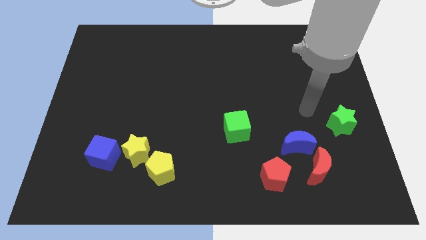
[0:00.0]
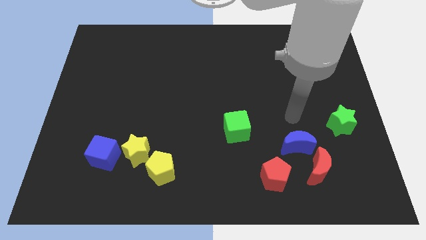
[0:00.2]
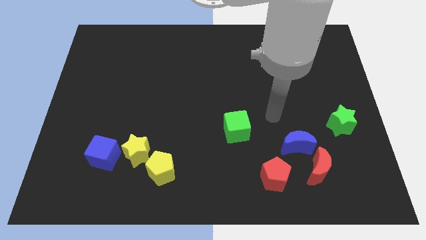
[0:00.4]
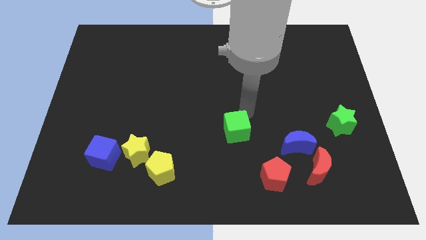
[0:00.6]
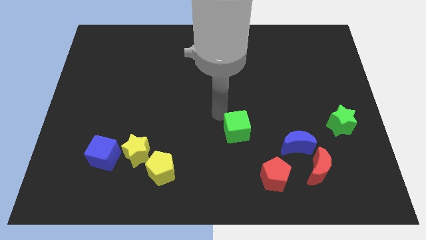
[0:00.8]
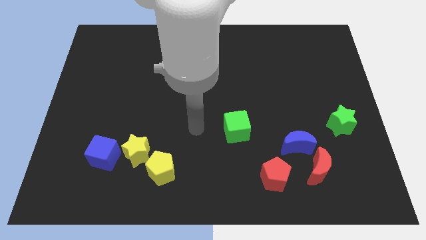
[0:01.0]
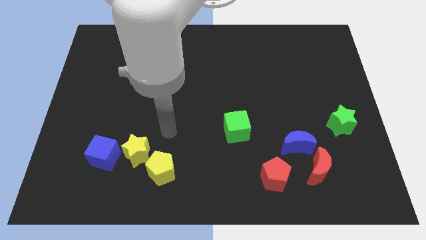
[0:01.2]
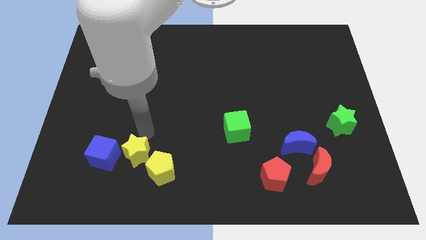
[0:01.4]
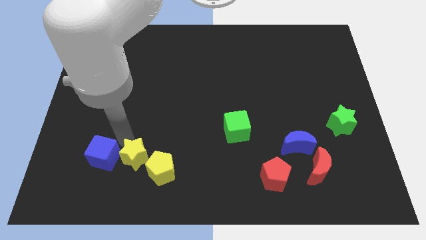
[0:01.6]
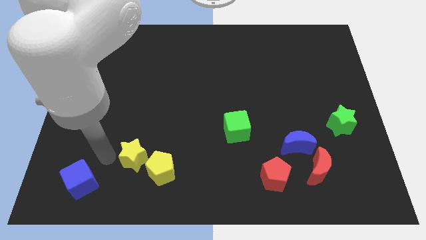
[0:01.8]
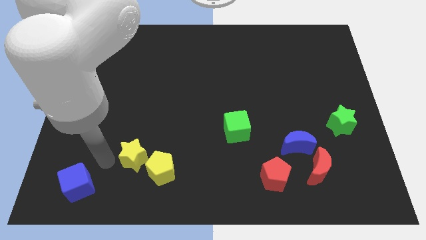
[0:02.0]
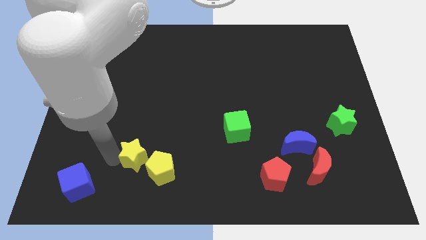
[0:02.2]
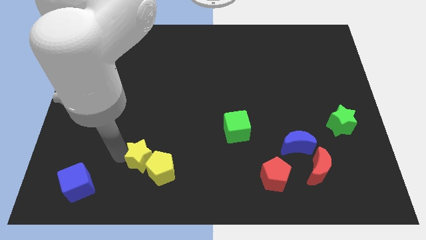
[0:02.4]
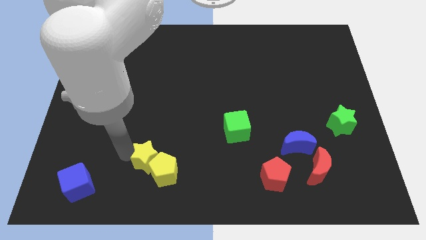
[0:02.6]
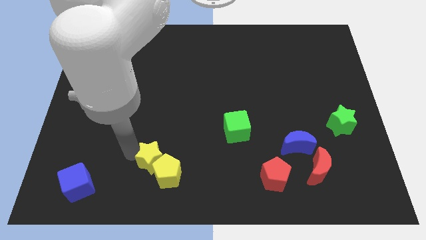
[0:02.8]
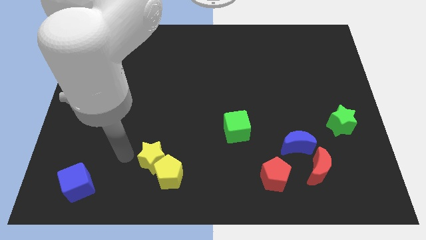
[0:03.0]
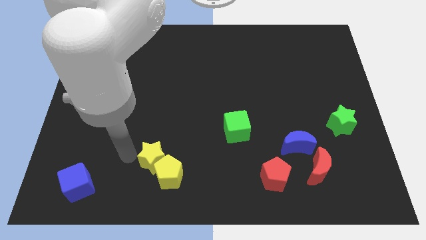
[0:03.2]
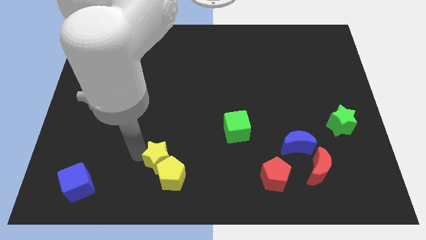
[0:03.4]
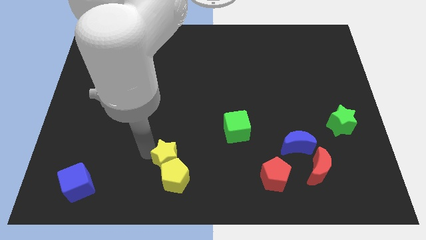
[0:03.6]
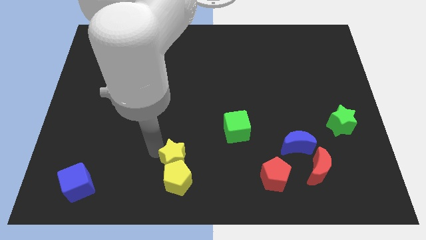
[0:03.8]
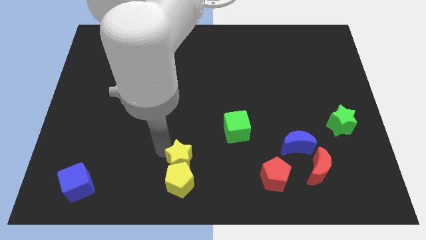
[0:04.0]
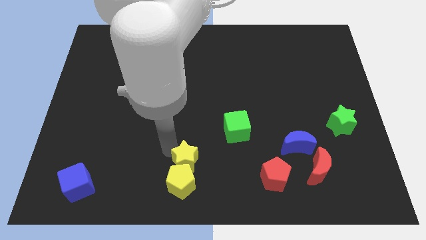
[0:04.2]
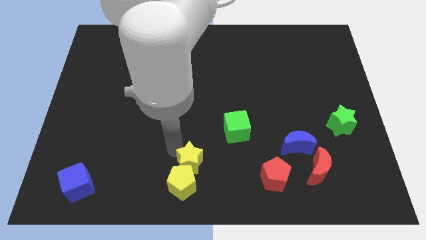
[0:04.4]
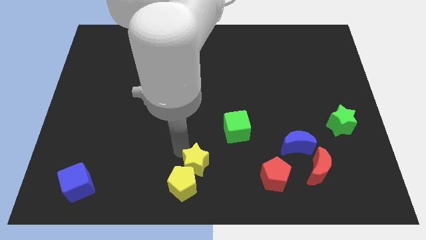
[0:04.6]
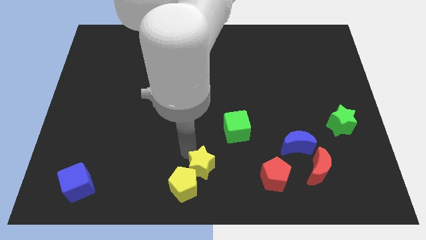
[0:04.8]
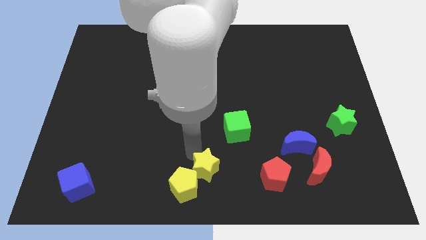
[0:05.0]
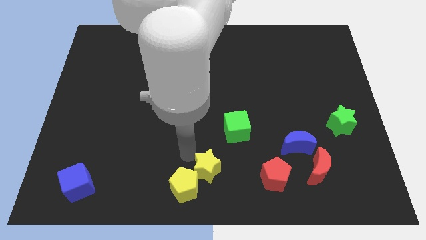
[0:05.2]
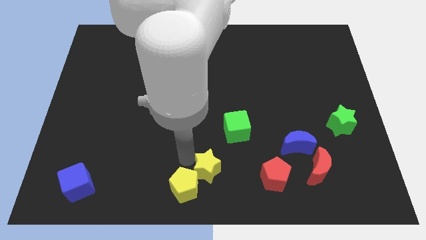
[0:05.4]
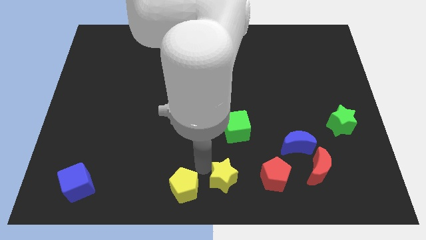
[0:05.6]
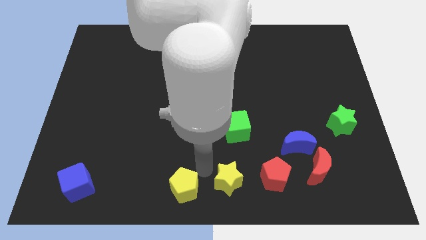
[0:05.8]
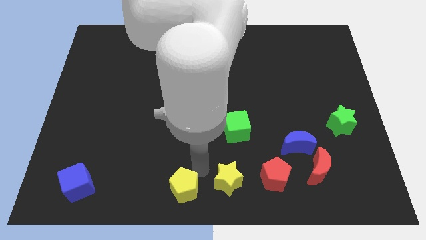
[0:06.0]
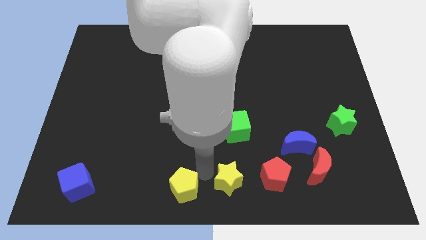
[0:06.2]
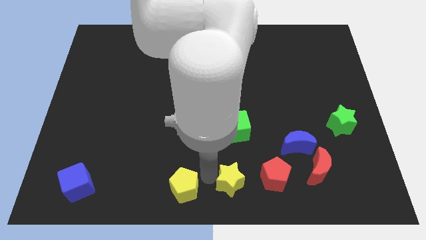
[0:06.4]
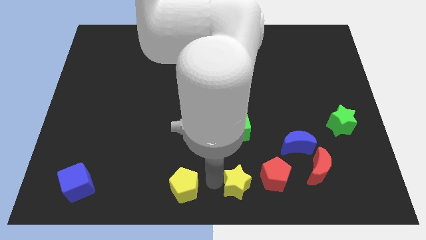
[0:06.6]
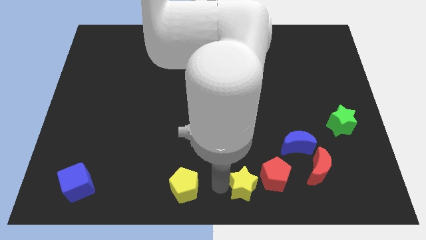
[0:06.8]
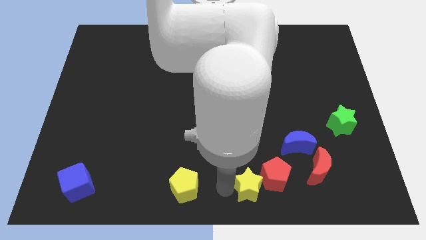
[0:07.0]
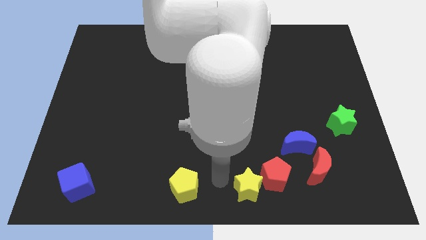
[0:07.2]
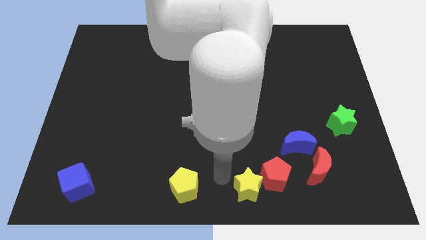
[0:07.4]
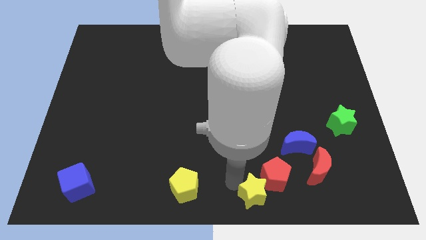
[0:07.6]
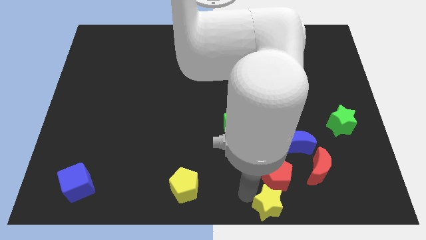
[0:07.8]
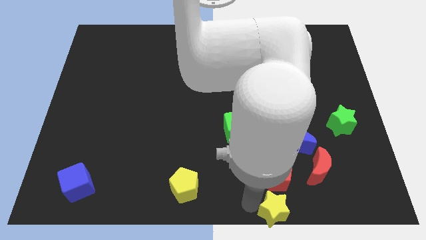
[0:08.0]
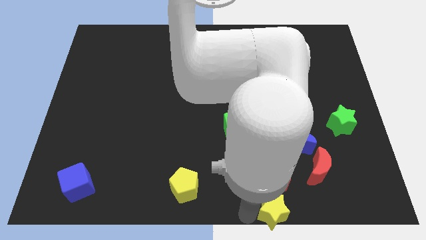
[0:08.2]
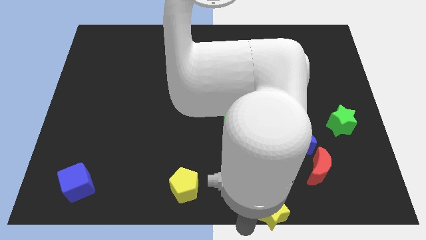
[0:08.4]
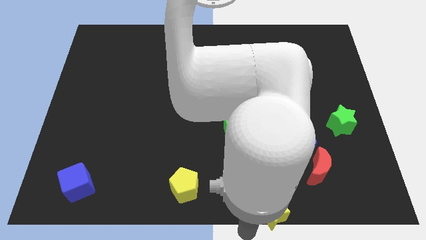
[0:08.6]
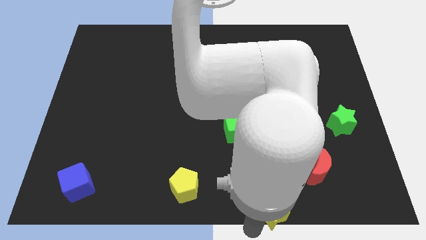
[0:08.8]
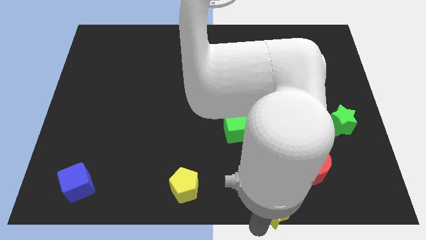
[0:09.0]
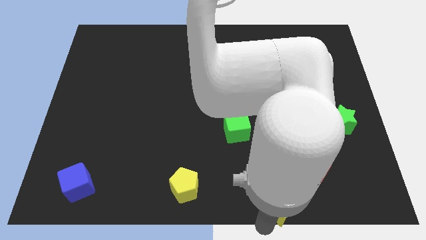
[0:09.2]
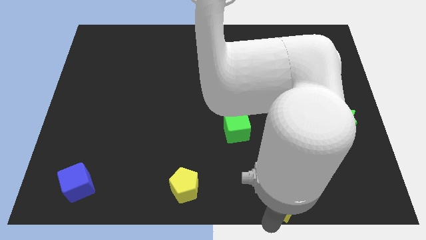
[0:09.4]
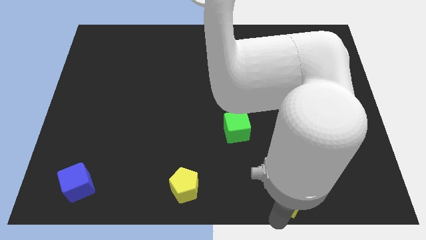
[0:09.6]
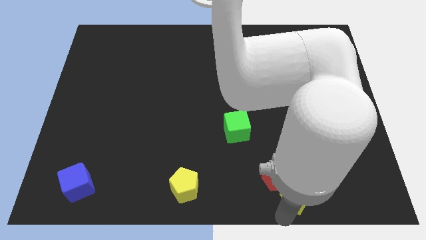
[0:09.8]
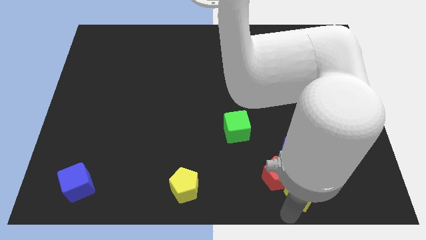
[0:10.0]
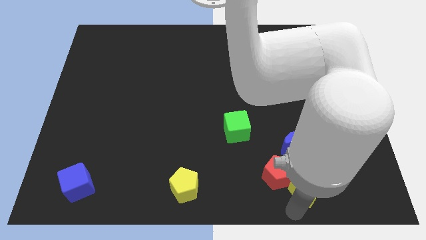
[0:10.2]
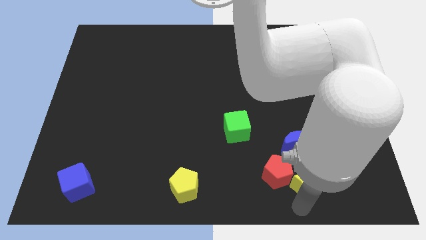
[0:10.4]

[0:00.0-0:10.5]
put the yellow star close to the red moon

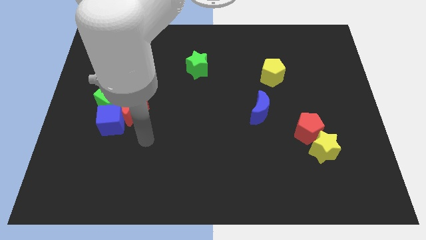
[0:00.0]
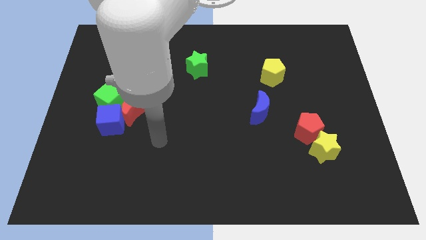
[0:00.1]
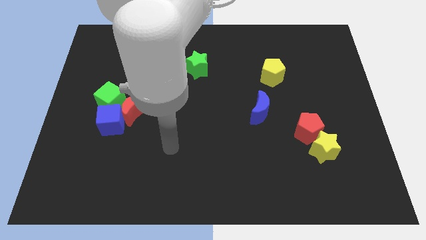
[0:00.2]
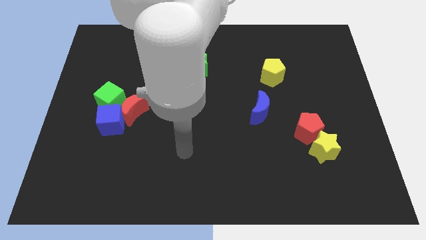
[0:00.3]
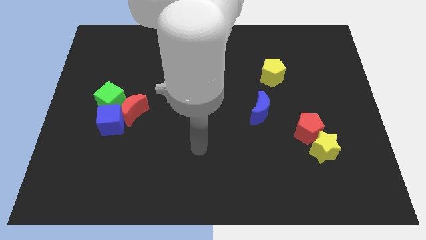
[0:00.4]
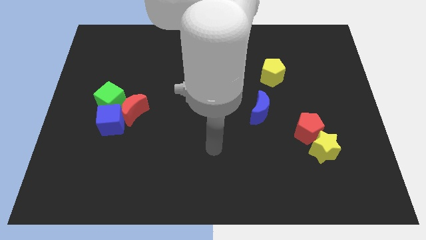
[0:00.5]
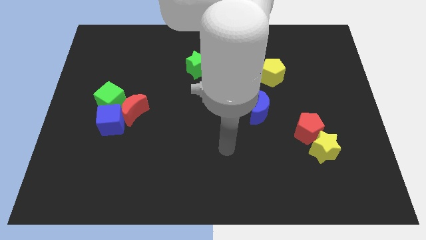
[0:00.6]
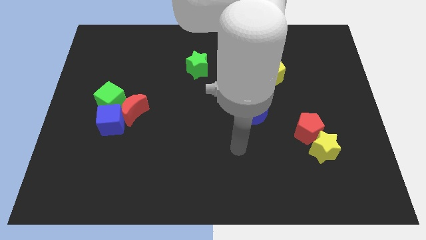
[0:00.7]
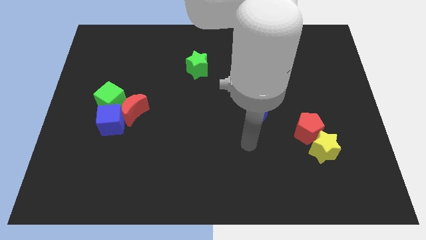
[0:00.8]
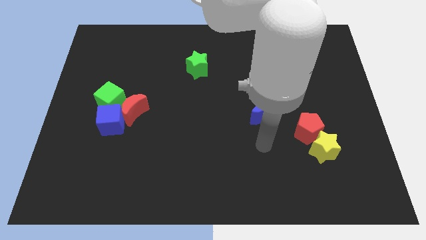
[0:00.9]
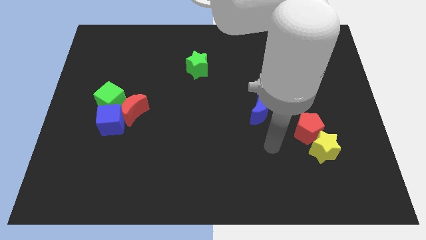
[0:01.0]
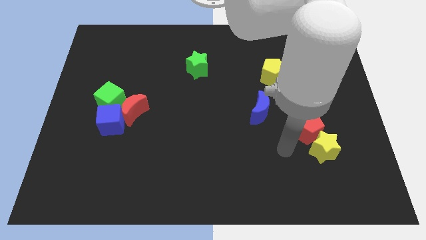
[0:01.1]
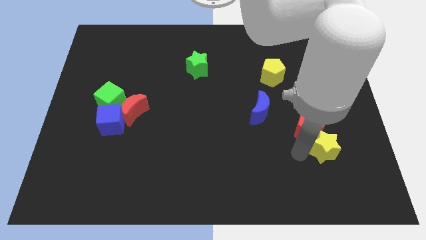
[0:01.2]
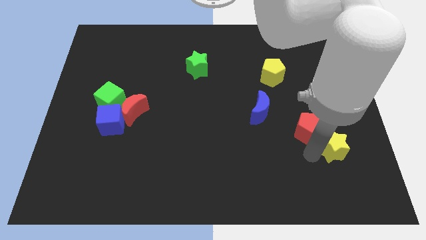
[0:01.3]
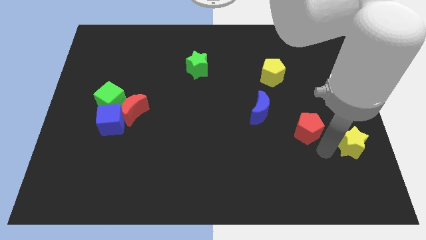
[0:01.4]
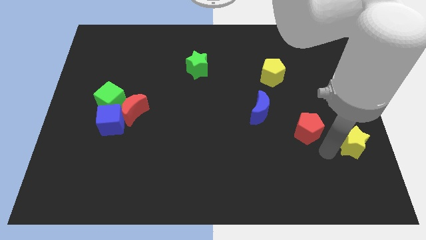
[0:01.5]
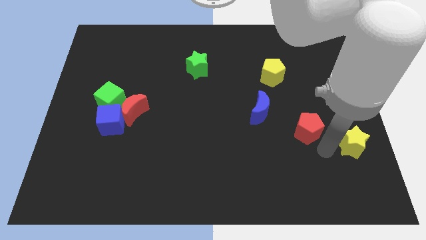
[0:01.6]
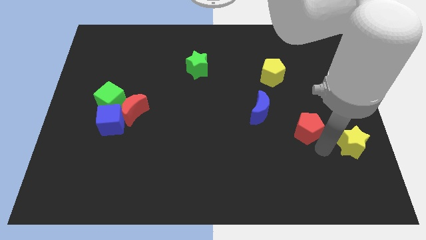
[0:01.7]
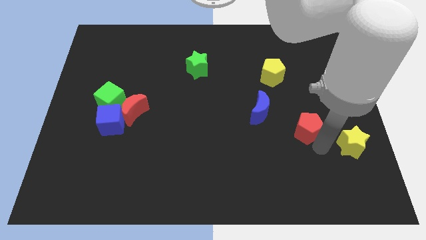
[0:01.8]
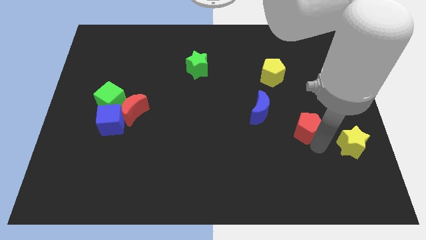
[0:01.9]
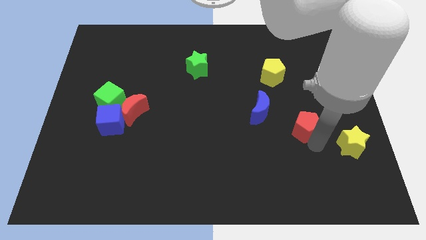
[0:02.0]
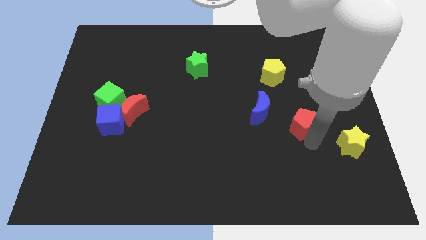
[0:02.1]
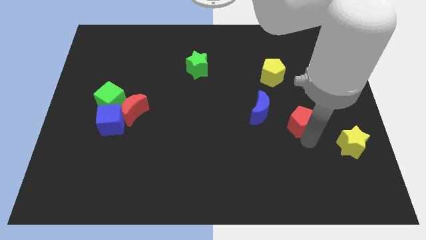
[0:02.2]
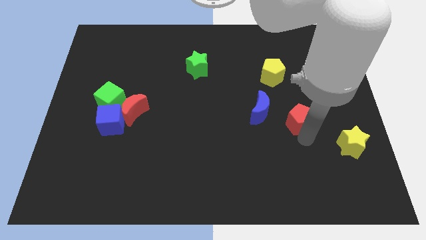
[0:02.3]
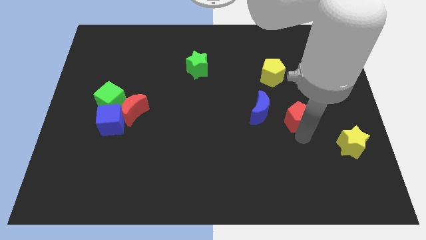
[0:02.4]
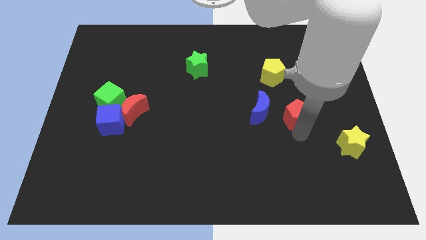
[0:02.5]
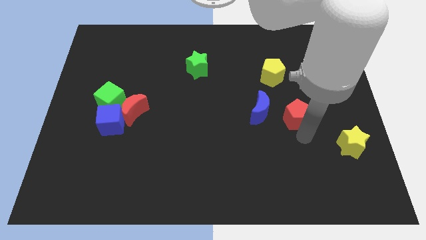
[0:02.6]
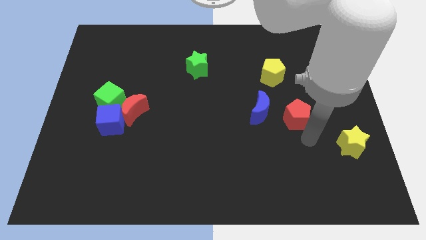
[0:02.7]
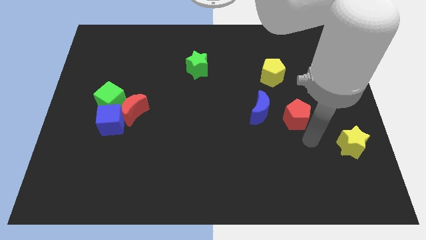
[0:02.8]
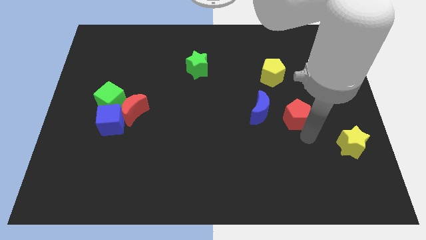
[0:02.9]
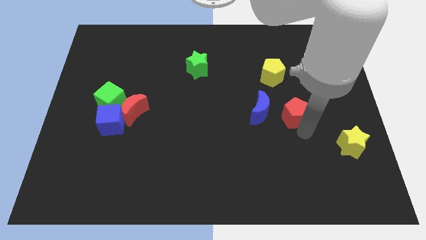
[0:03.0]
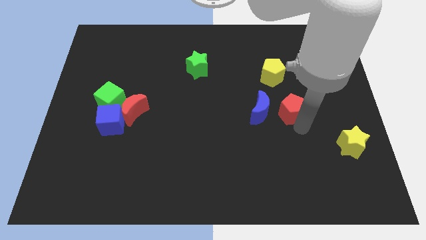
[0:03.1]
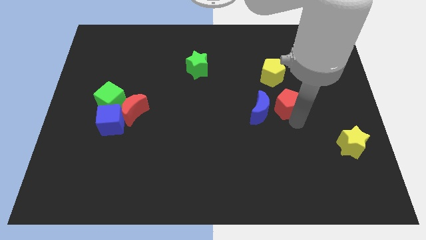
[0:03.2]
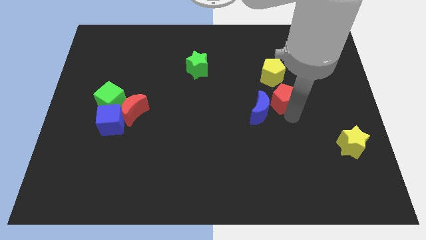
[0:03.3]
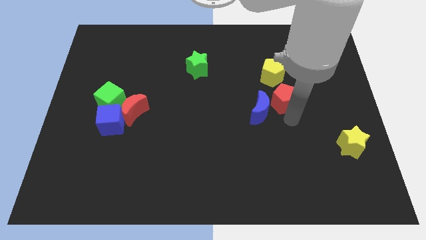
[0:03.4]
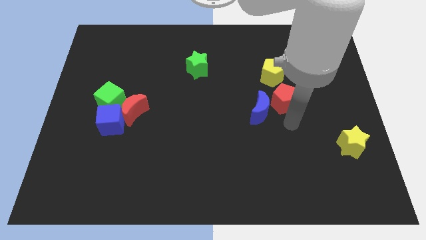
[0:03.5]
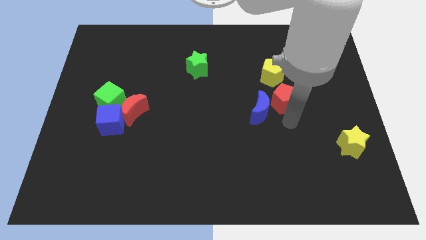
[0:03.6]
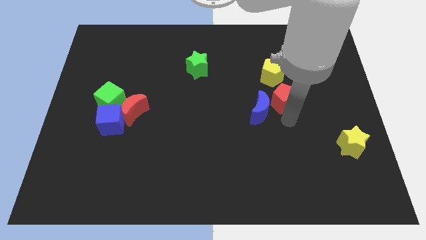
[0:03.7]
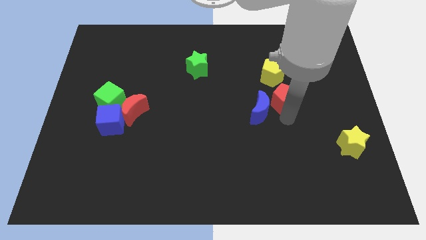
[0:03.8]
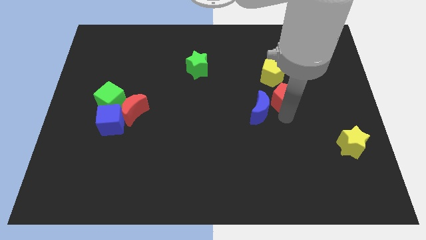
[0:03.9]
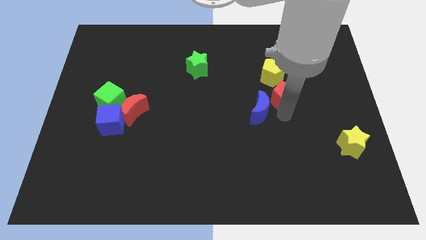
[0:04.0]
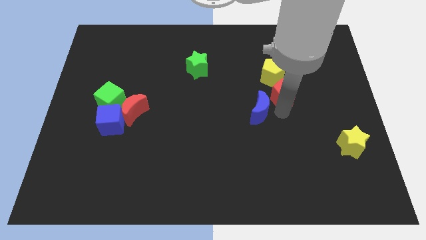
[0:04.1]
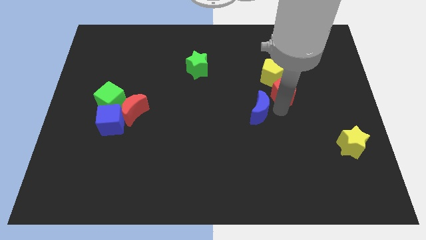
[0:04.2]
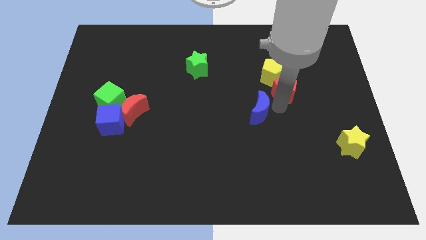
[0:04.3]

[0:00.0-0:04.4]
slide the red pentagon close to the yellow pentagon
